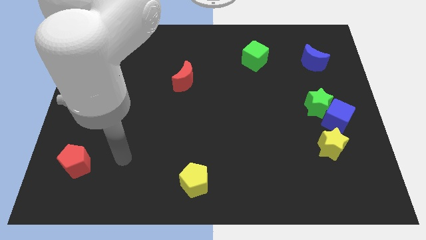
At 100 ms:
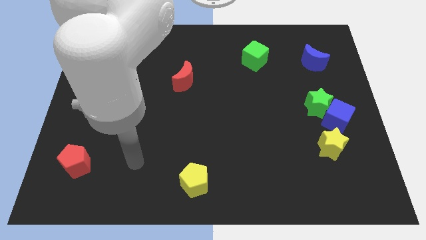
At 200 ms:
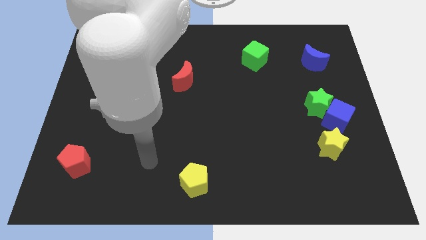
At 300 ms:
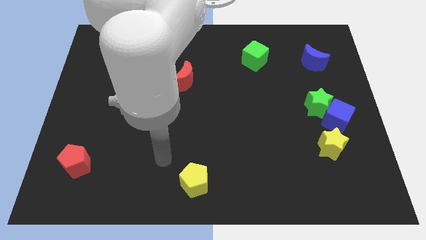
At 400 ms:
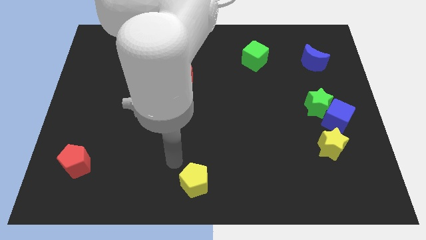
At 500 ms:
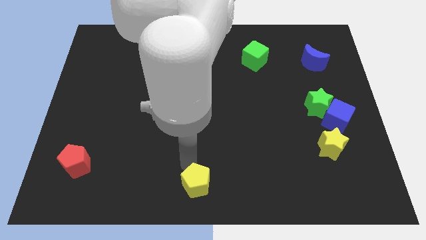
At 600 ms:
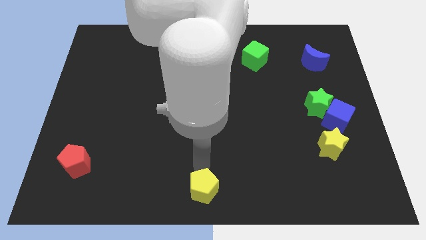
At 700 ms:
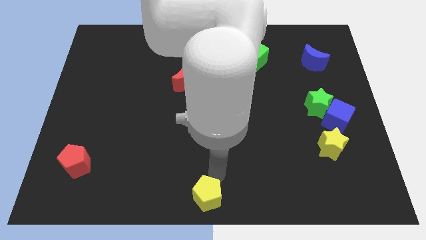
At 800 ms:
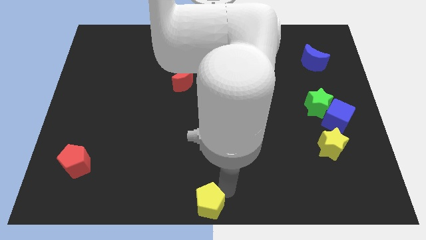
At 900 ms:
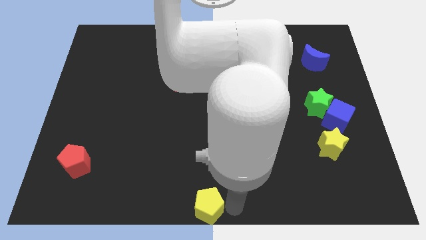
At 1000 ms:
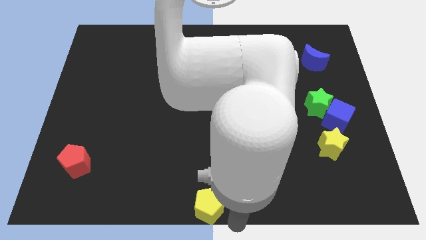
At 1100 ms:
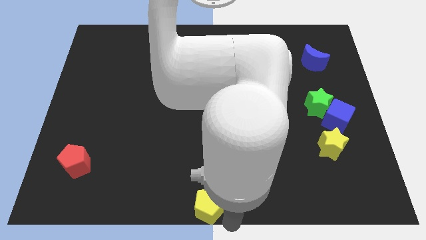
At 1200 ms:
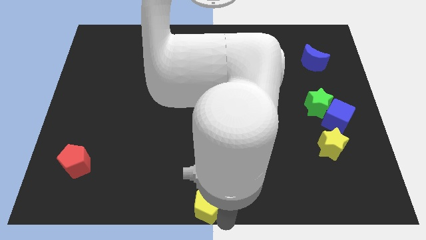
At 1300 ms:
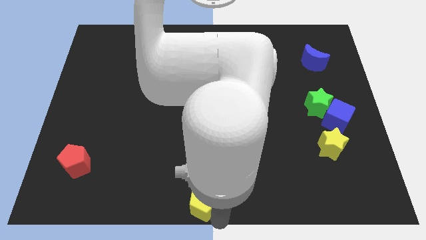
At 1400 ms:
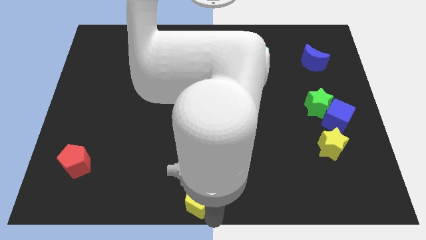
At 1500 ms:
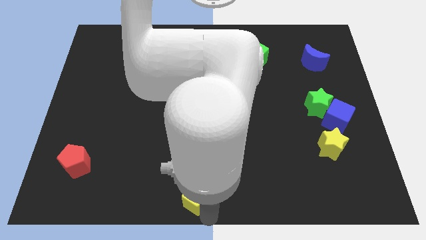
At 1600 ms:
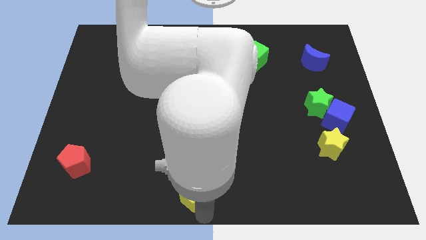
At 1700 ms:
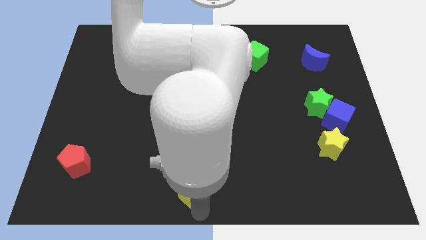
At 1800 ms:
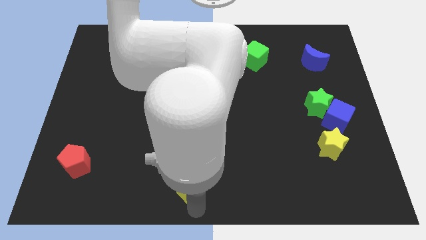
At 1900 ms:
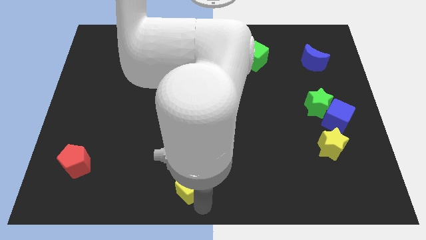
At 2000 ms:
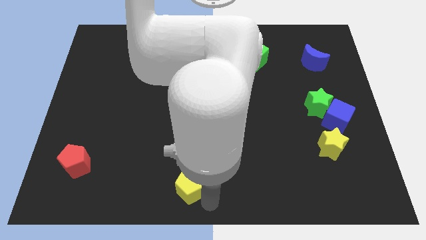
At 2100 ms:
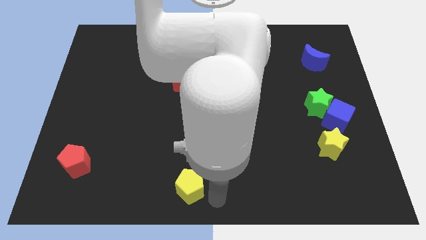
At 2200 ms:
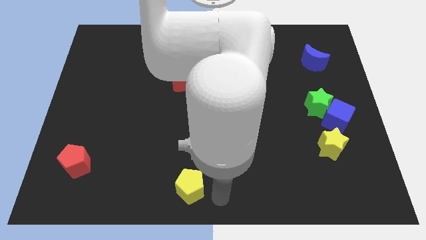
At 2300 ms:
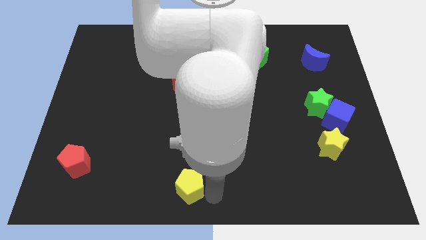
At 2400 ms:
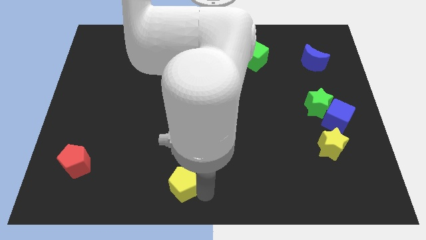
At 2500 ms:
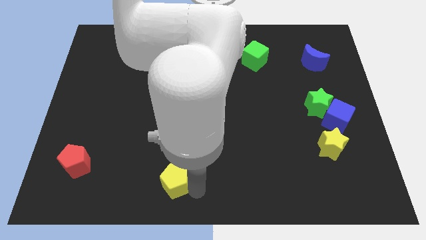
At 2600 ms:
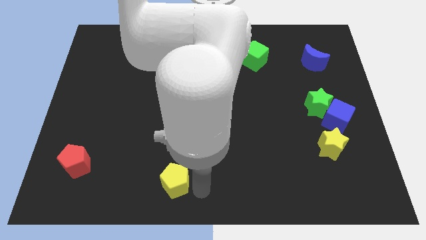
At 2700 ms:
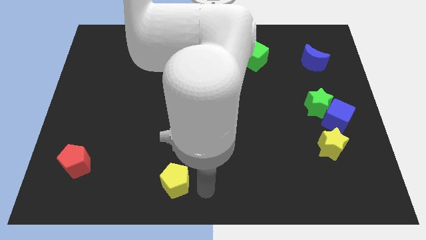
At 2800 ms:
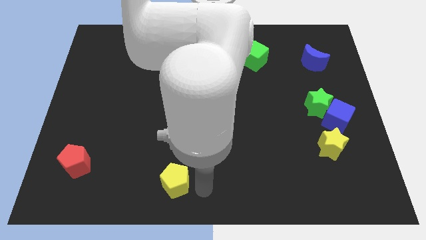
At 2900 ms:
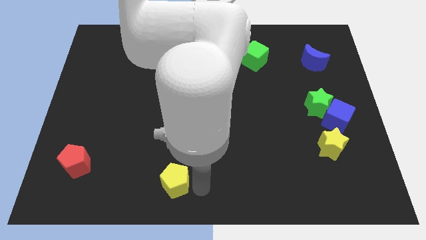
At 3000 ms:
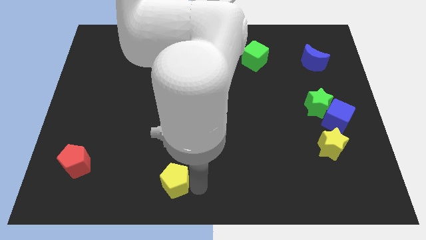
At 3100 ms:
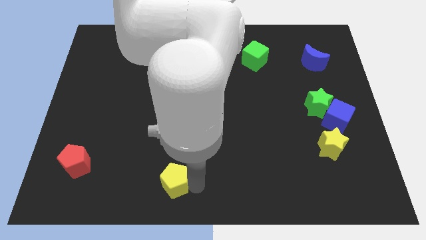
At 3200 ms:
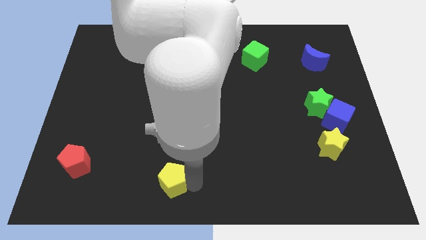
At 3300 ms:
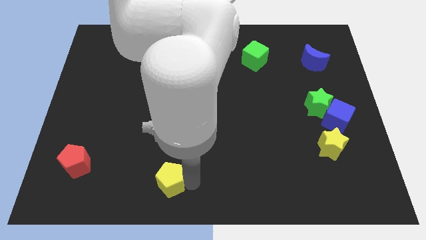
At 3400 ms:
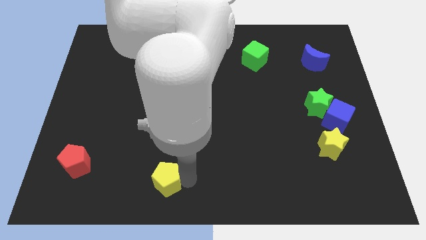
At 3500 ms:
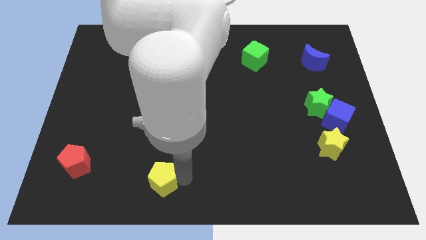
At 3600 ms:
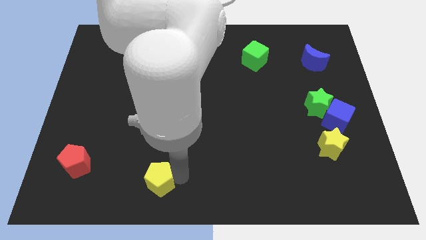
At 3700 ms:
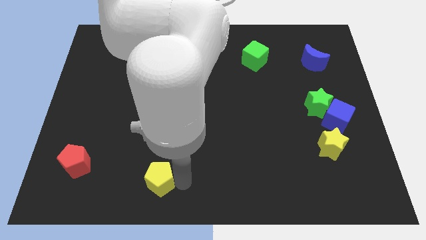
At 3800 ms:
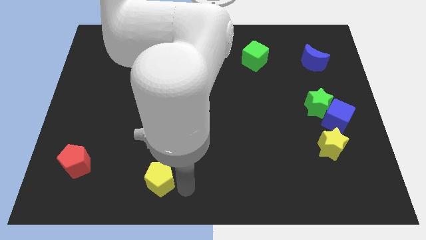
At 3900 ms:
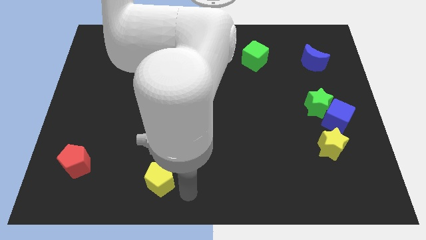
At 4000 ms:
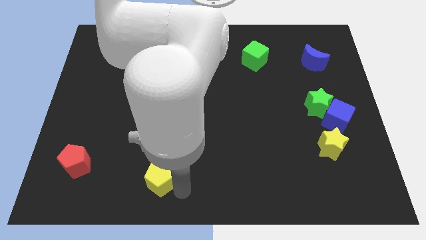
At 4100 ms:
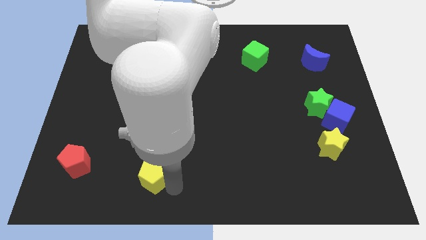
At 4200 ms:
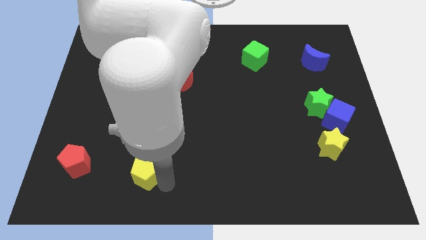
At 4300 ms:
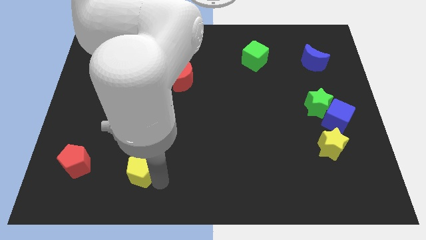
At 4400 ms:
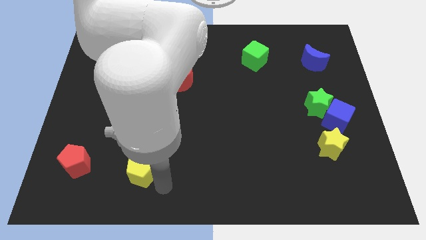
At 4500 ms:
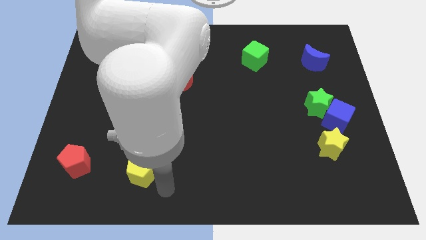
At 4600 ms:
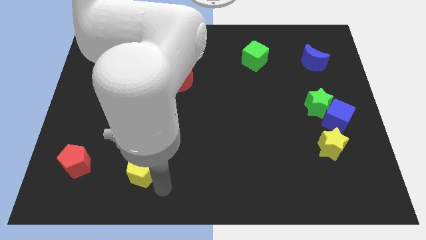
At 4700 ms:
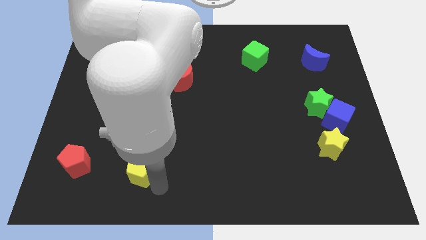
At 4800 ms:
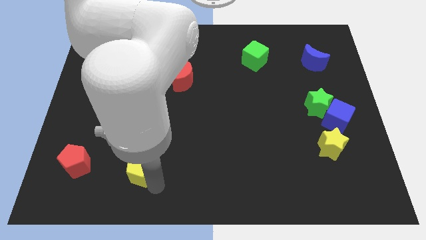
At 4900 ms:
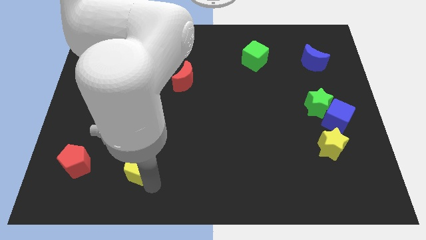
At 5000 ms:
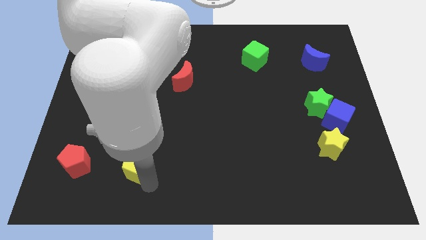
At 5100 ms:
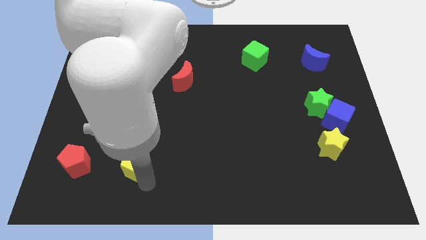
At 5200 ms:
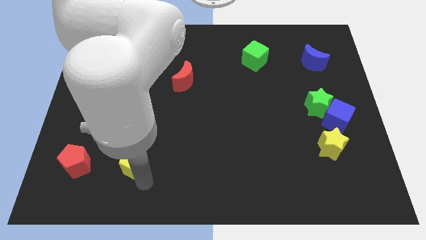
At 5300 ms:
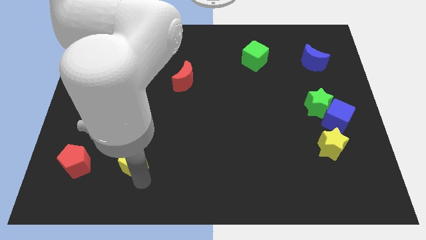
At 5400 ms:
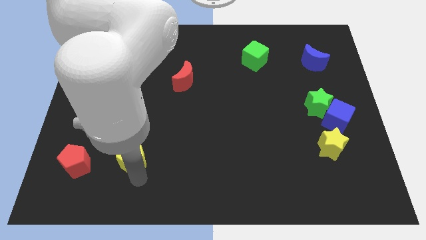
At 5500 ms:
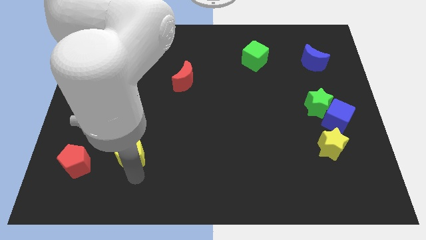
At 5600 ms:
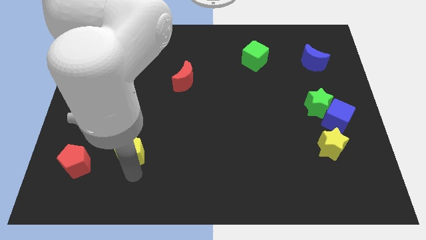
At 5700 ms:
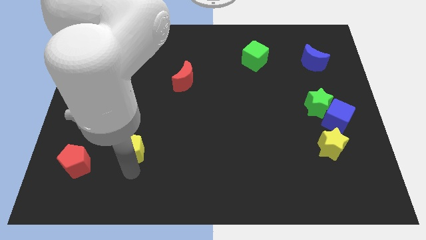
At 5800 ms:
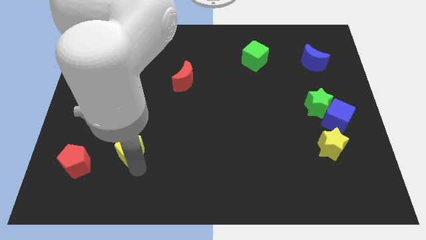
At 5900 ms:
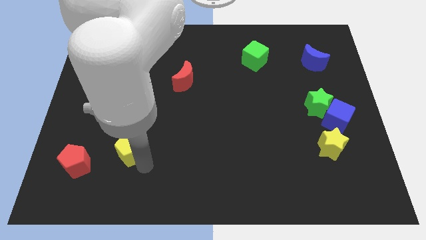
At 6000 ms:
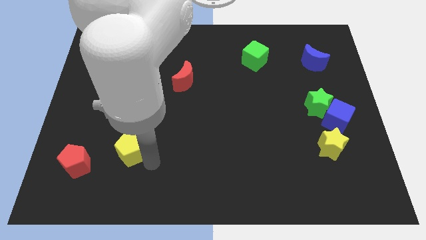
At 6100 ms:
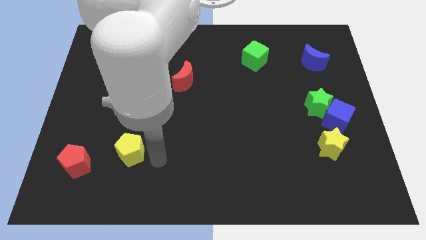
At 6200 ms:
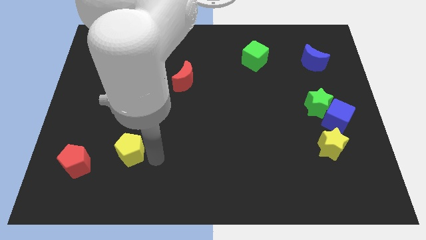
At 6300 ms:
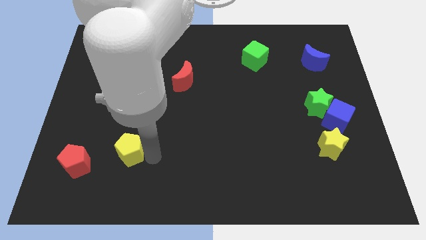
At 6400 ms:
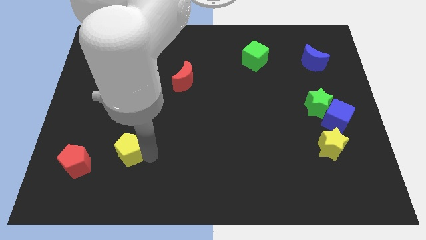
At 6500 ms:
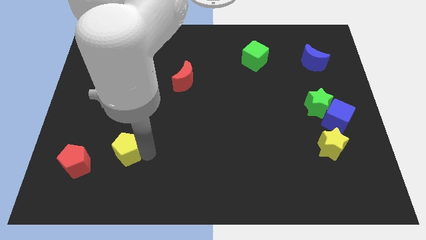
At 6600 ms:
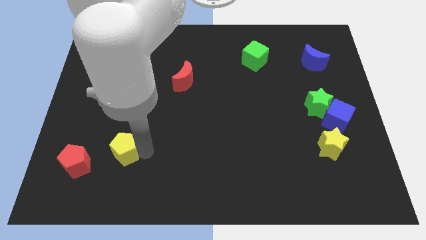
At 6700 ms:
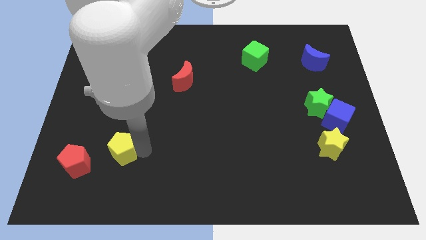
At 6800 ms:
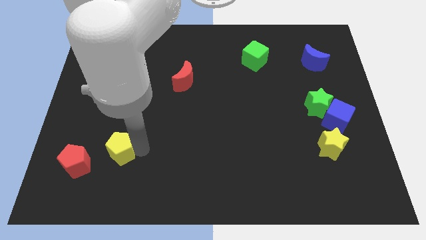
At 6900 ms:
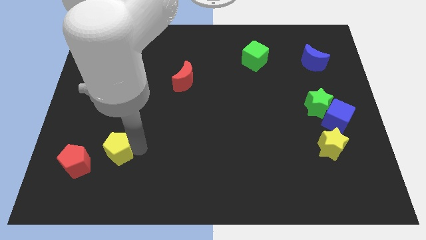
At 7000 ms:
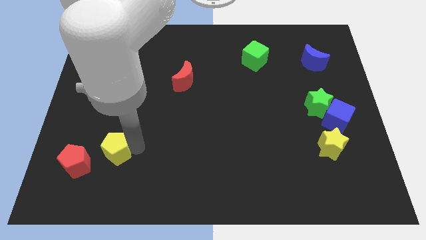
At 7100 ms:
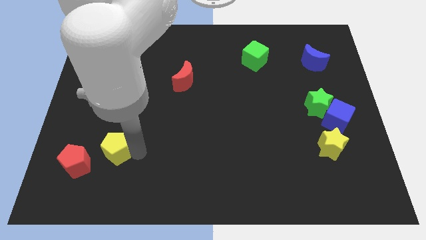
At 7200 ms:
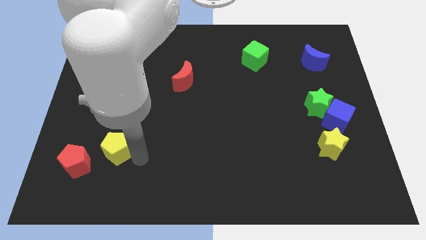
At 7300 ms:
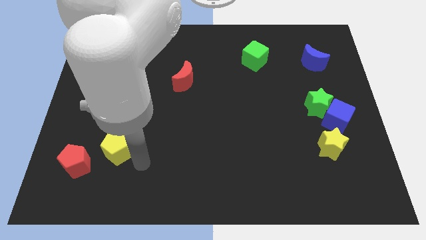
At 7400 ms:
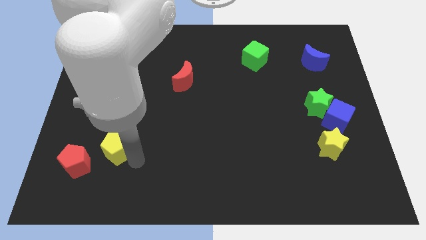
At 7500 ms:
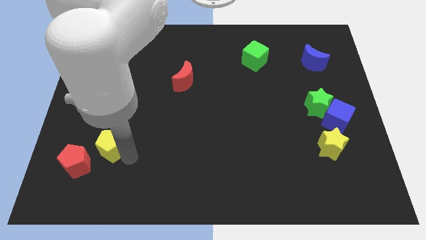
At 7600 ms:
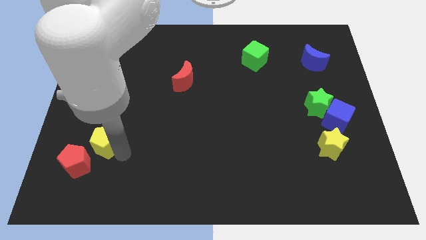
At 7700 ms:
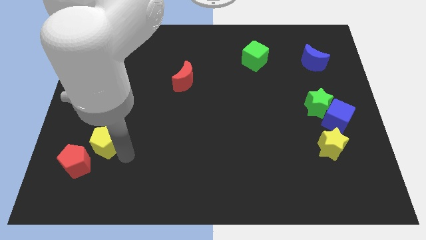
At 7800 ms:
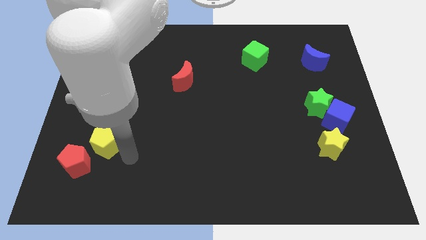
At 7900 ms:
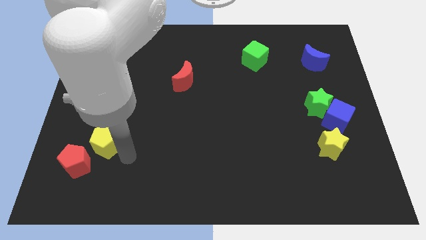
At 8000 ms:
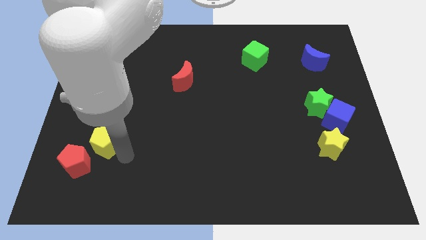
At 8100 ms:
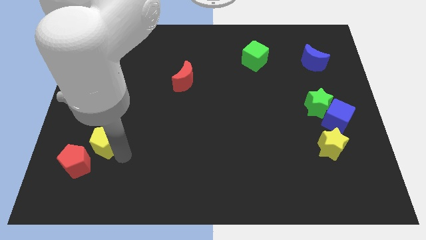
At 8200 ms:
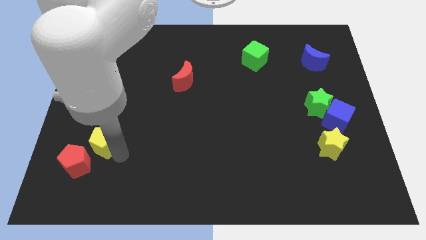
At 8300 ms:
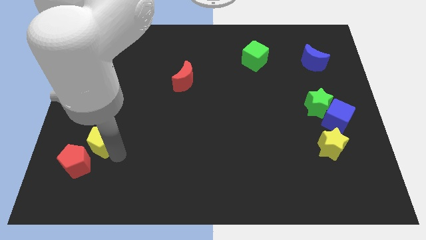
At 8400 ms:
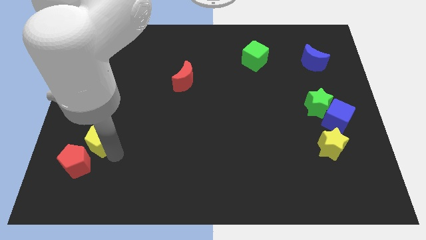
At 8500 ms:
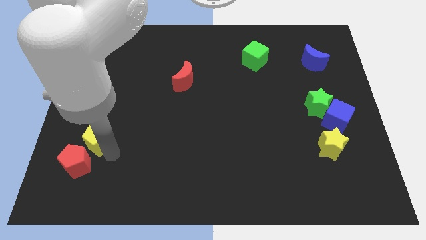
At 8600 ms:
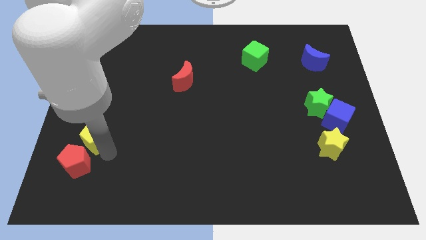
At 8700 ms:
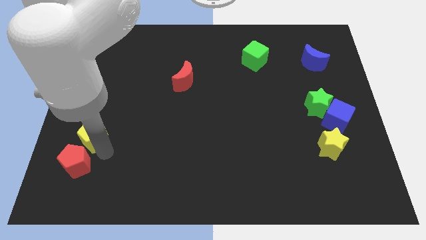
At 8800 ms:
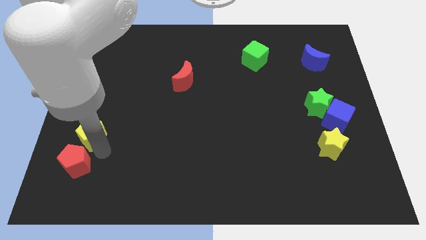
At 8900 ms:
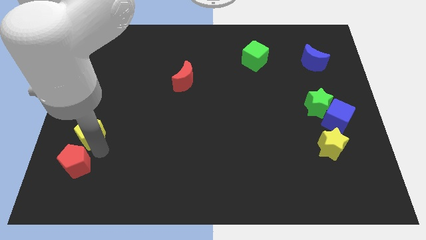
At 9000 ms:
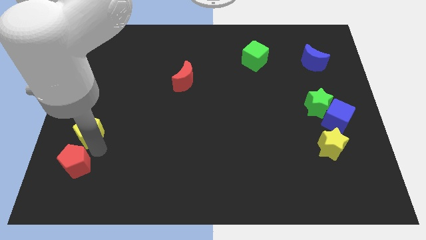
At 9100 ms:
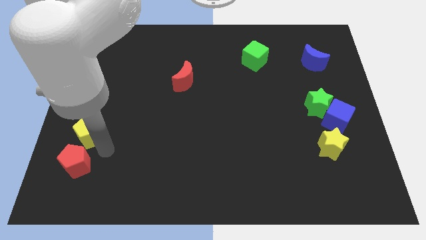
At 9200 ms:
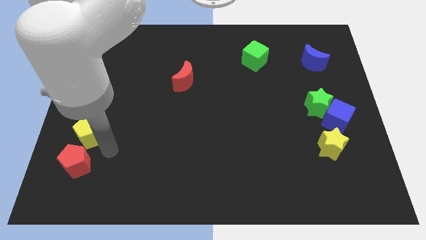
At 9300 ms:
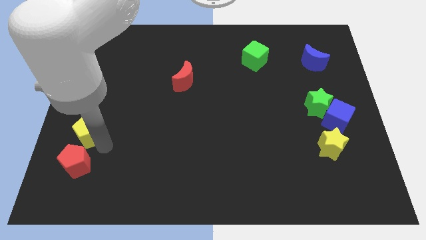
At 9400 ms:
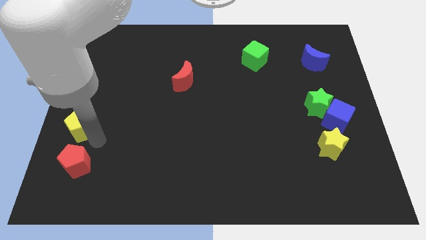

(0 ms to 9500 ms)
move the yellow pentagon to the center left
